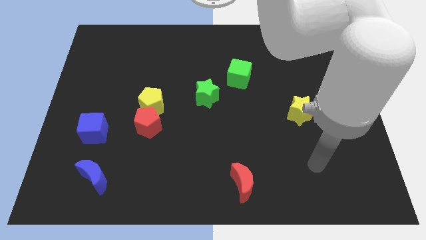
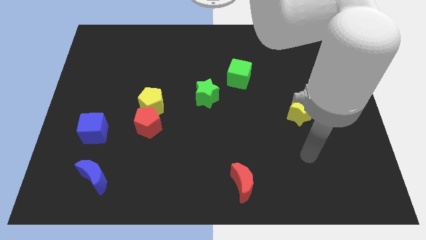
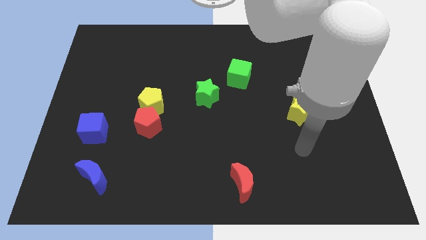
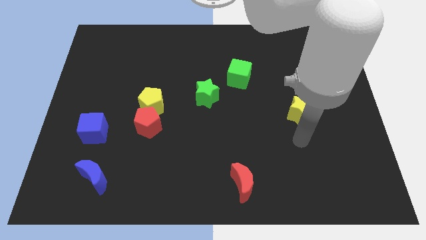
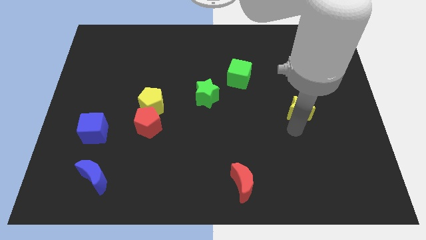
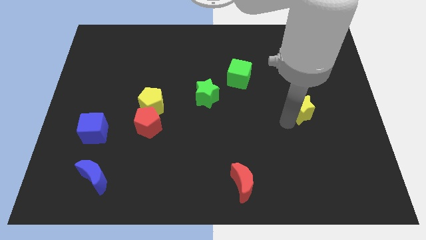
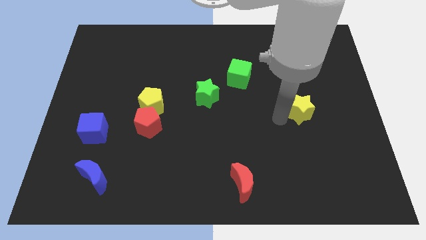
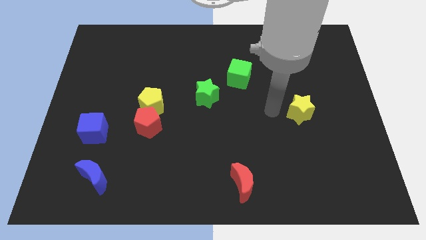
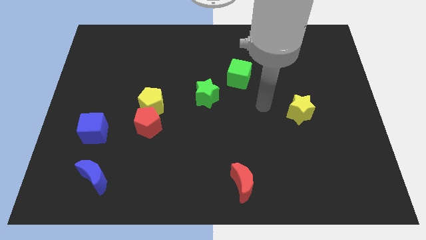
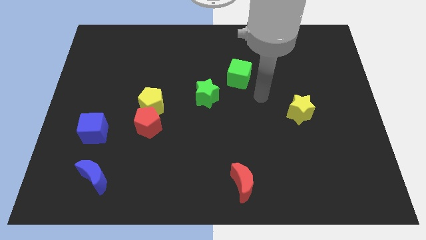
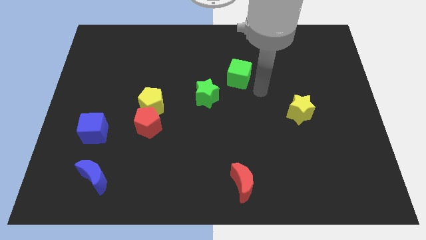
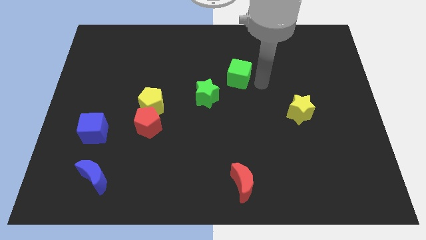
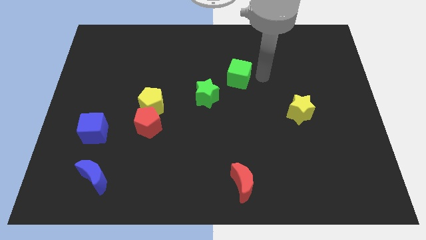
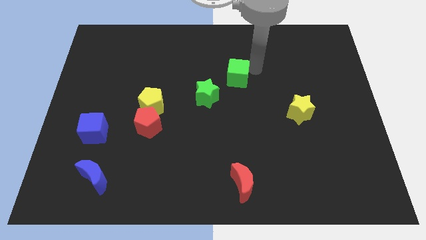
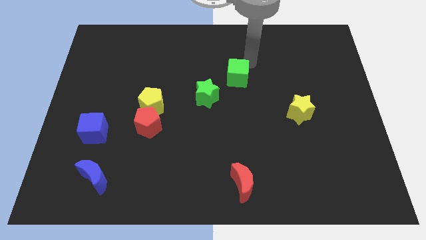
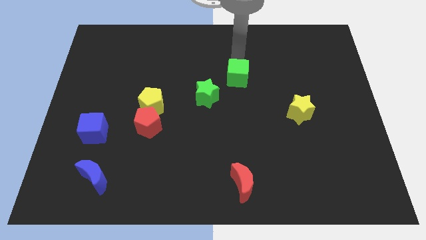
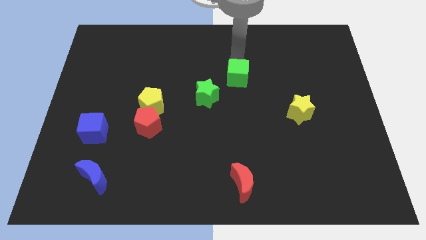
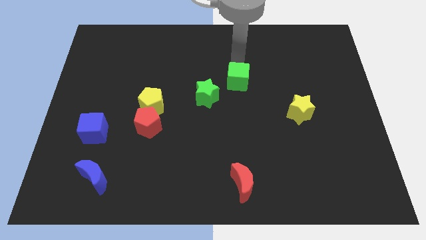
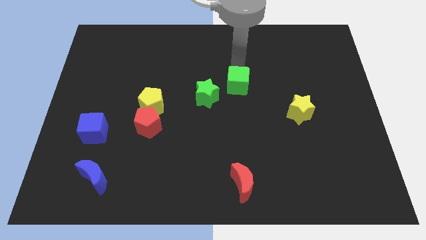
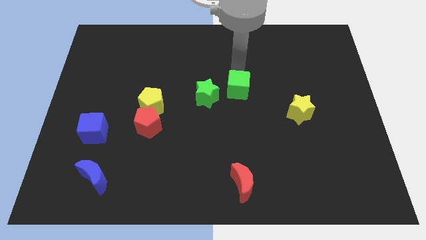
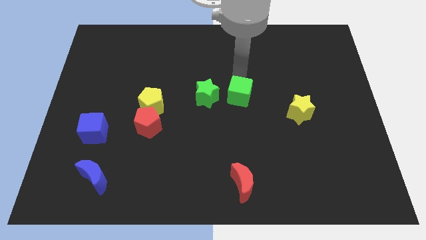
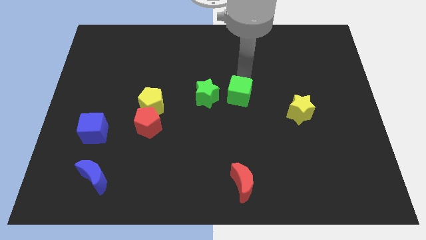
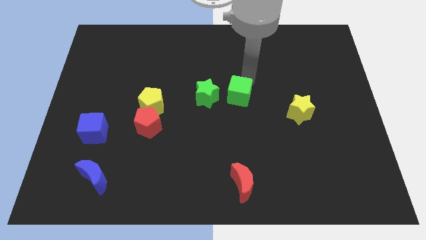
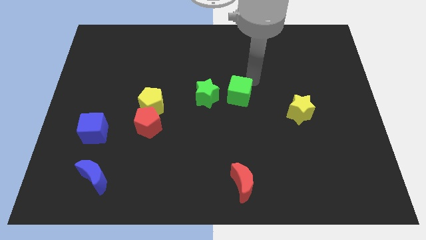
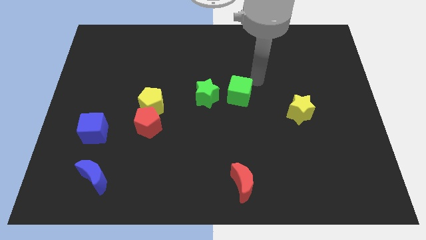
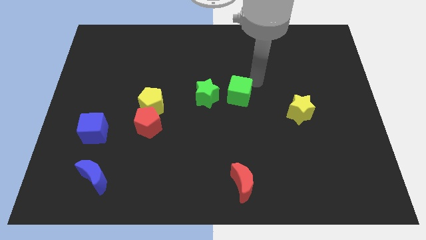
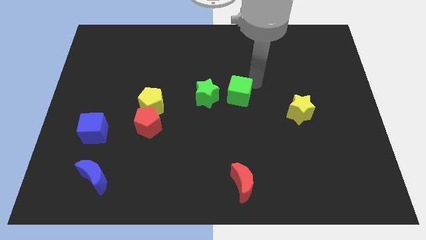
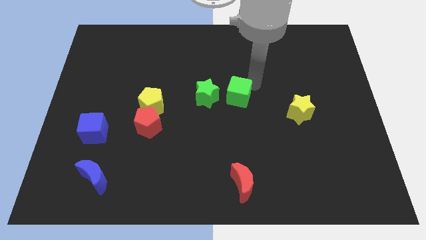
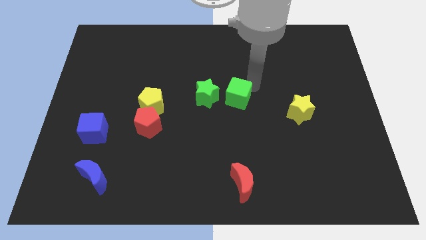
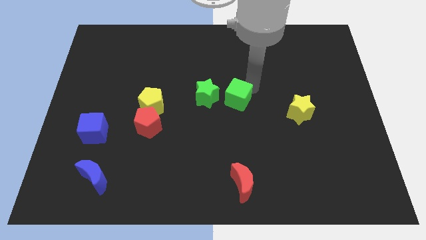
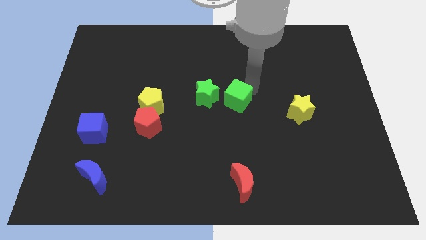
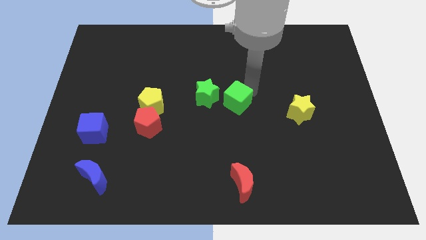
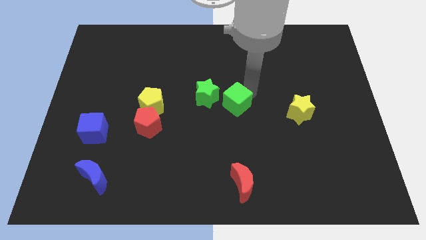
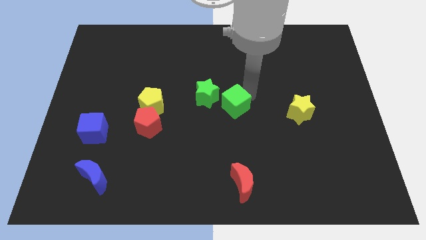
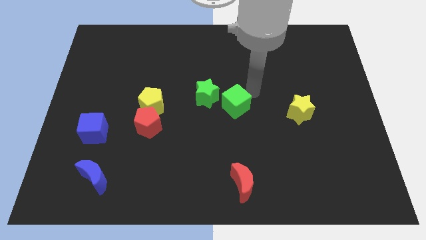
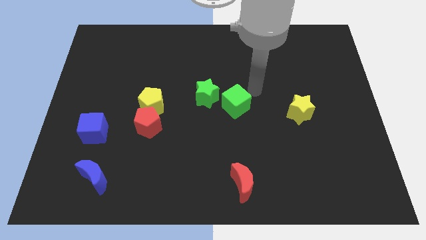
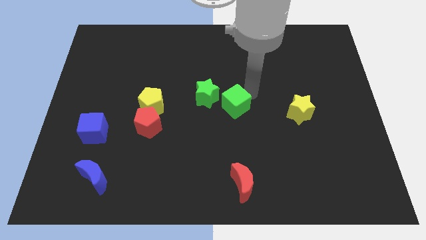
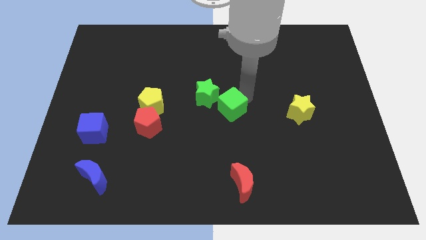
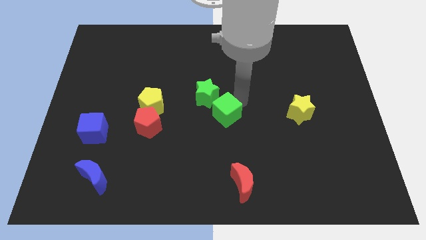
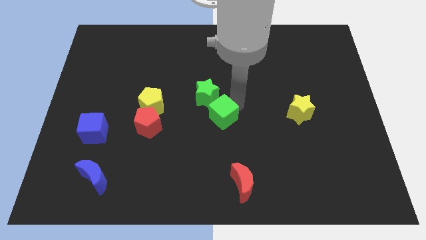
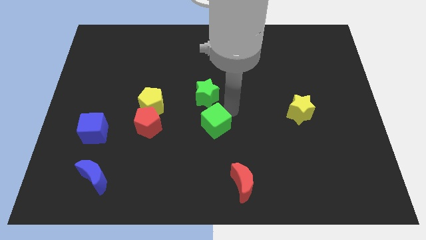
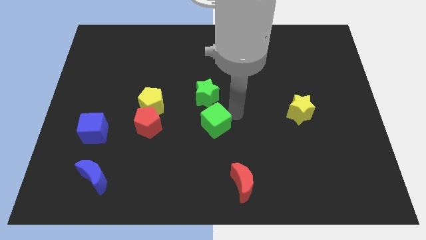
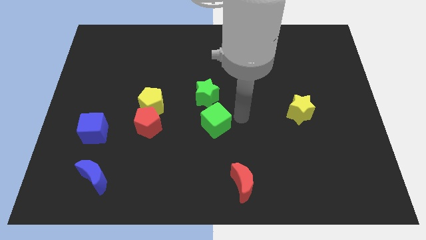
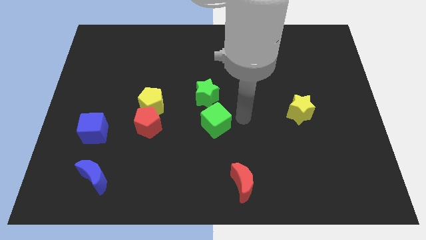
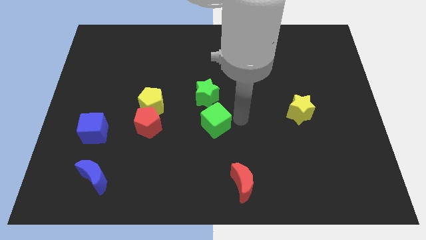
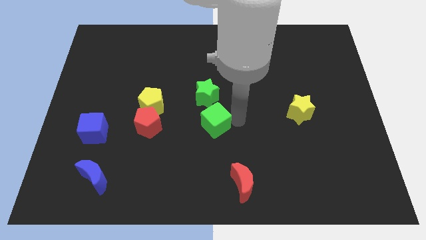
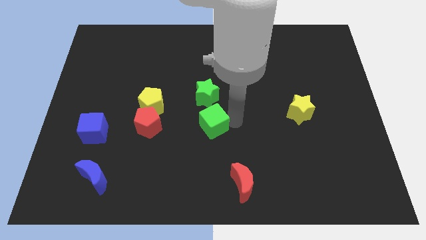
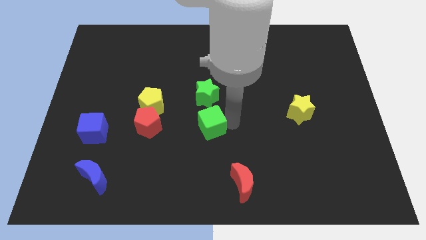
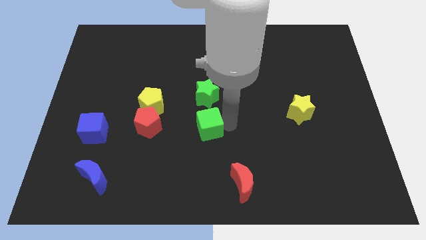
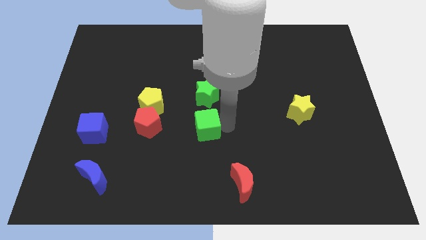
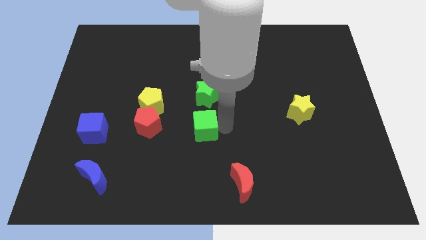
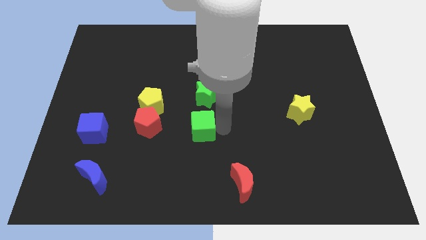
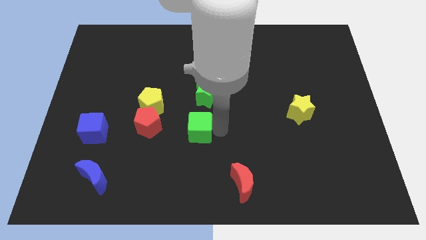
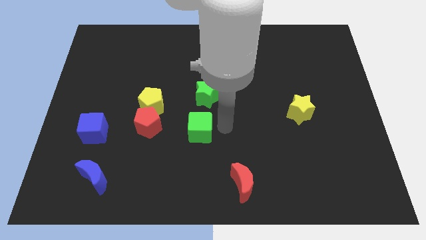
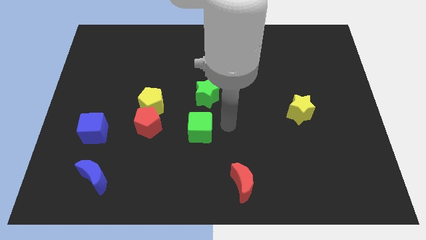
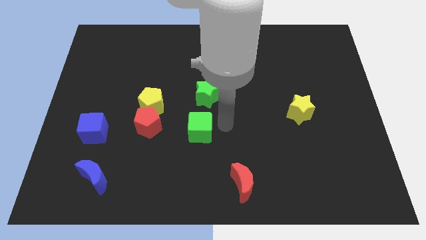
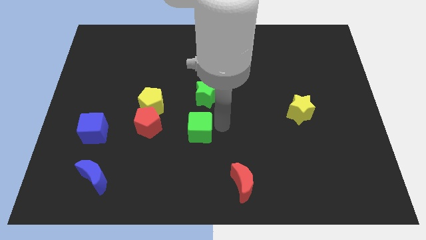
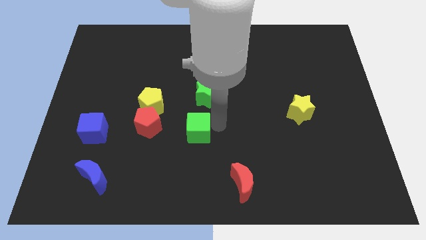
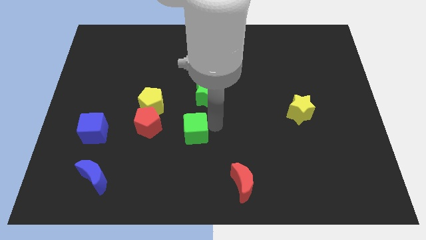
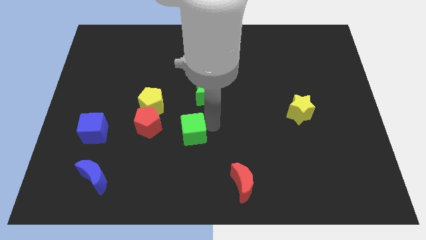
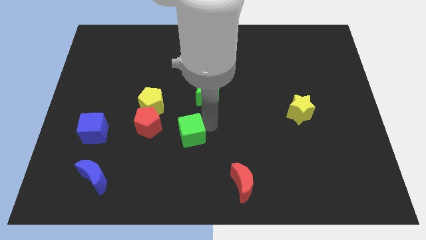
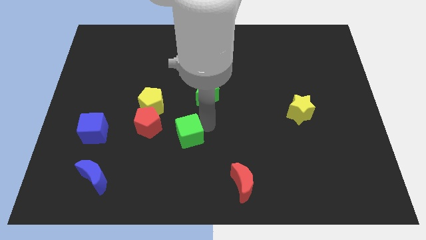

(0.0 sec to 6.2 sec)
slide the green cube down and left

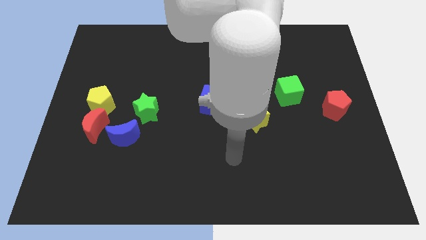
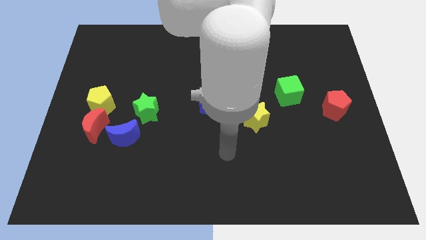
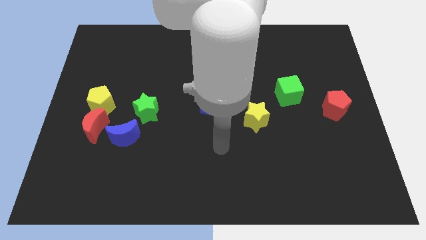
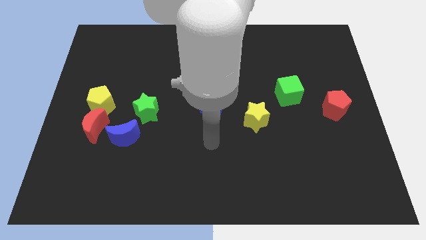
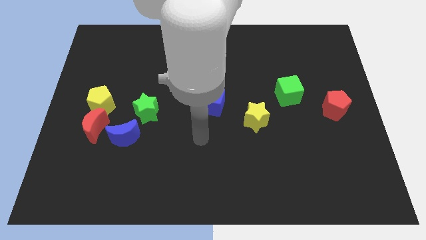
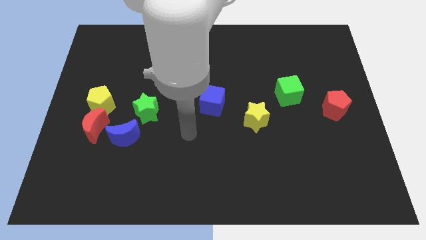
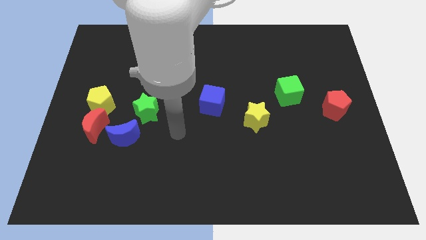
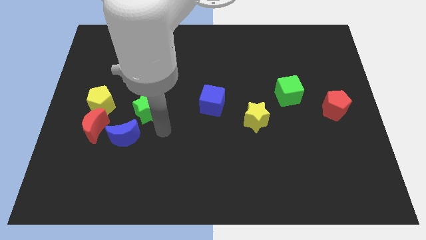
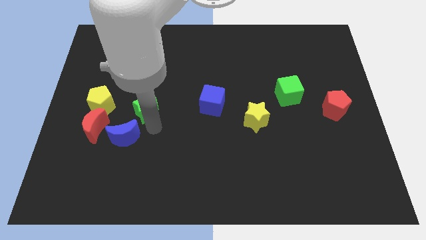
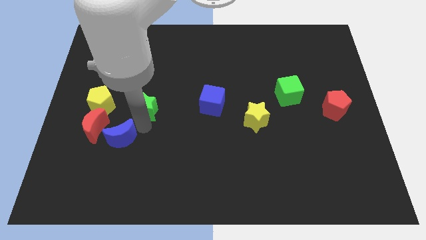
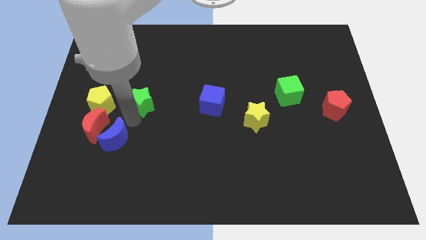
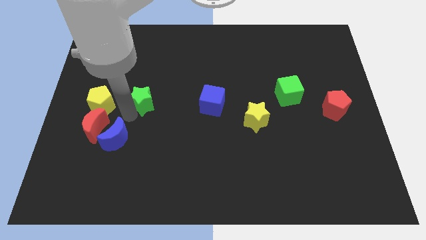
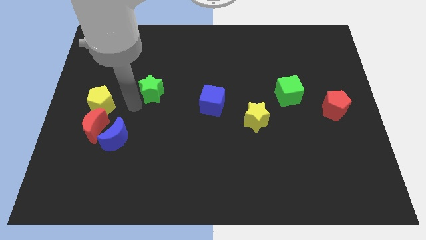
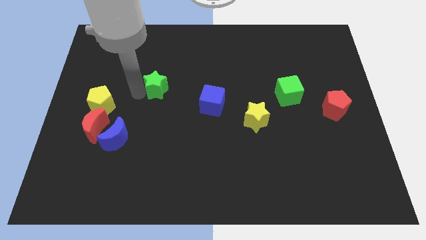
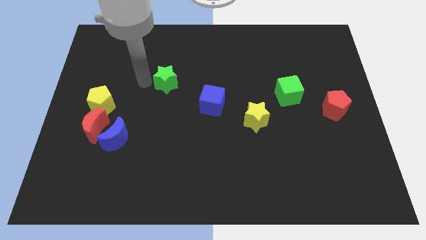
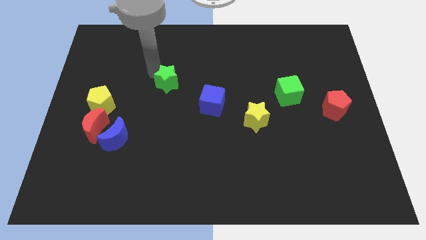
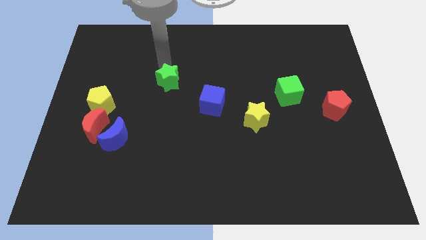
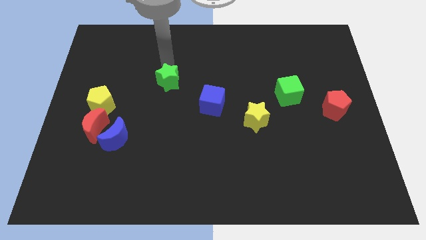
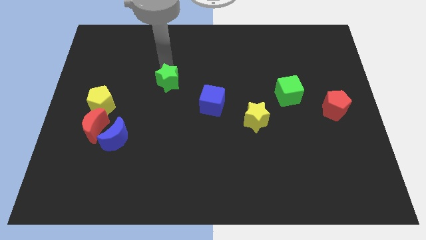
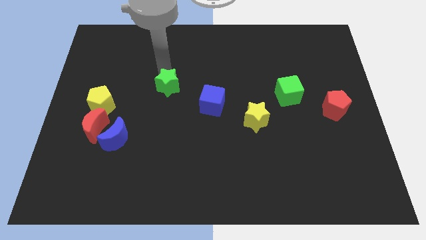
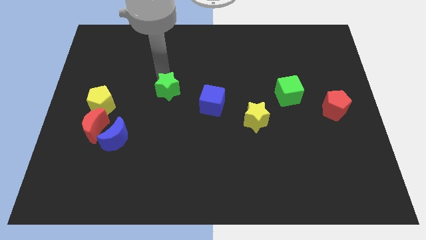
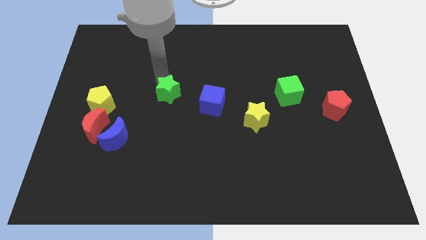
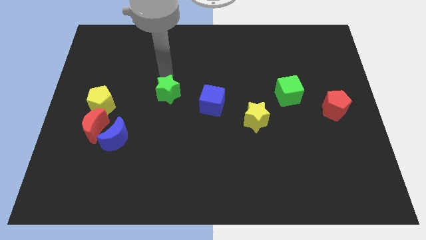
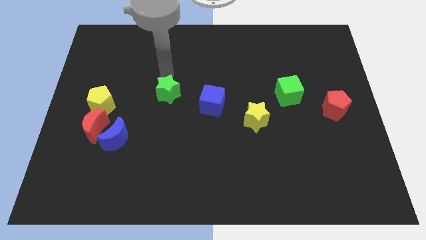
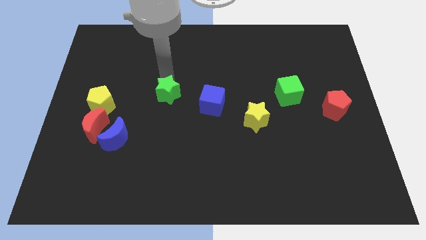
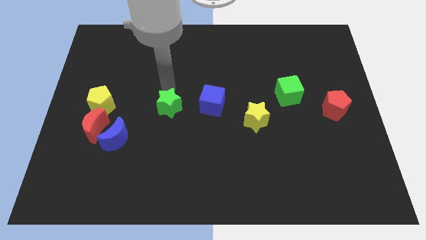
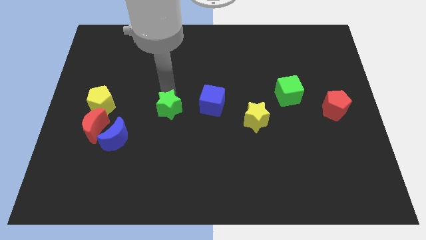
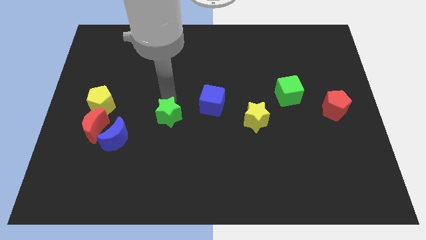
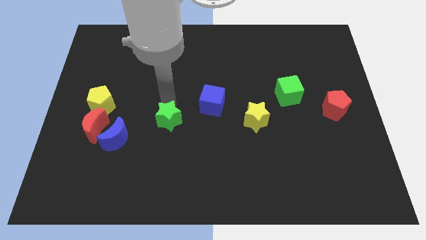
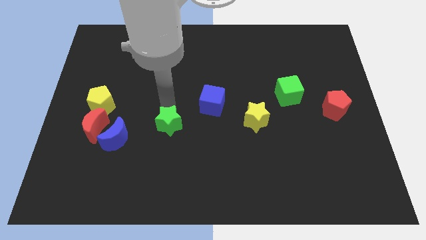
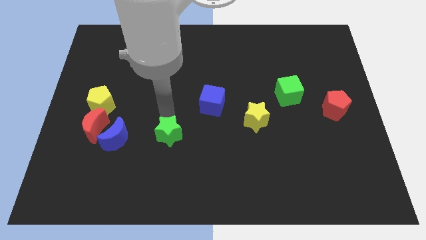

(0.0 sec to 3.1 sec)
push the green star a little bit downwards and to the right
